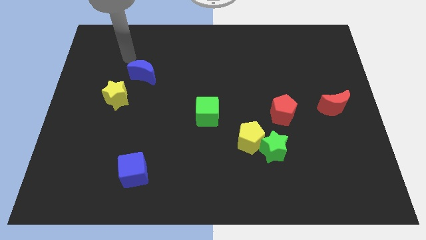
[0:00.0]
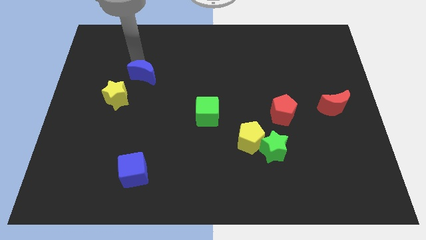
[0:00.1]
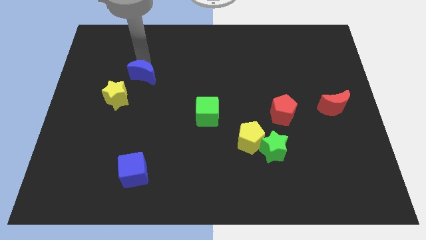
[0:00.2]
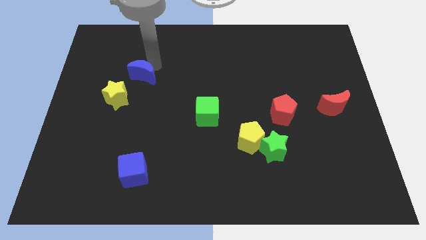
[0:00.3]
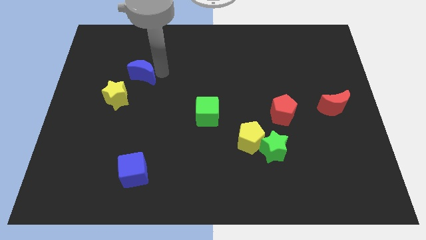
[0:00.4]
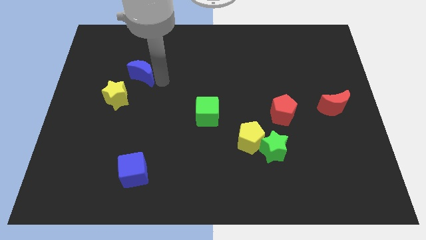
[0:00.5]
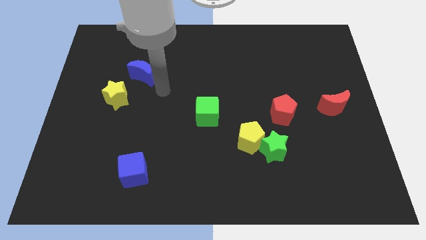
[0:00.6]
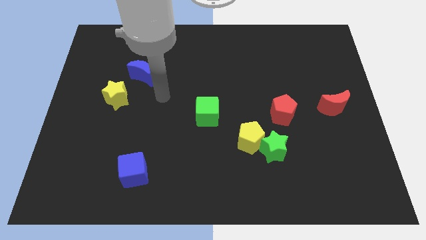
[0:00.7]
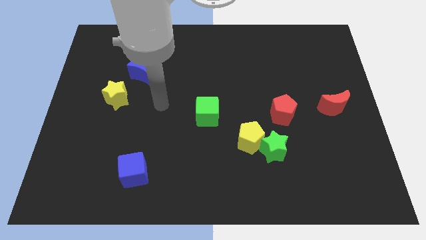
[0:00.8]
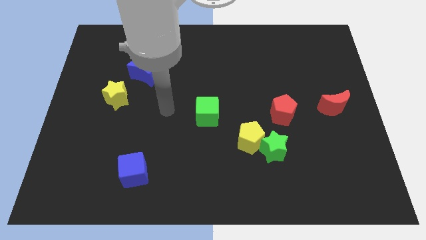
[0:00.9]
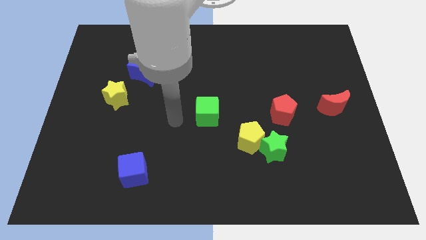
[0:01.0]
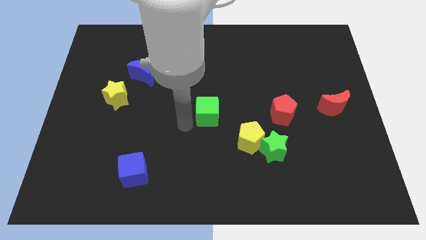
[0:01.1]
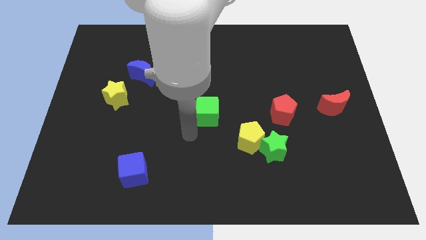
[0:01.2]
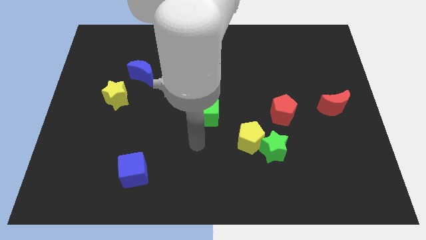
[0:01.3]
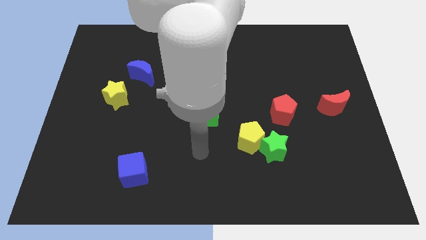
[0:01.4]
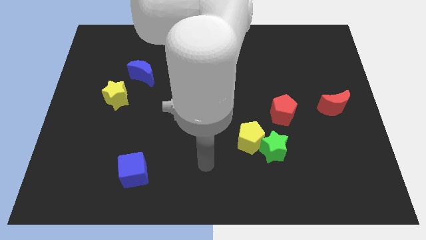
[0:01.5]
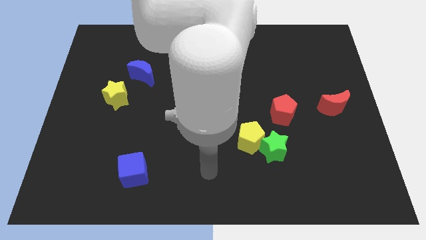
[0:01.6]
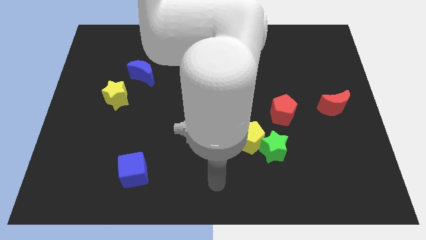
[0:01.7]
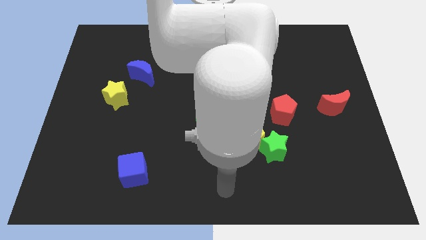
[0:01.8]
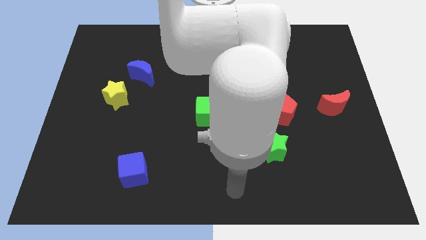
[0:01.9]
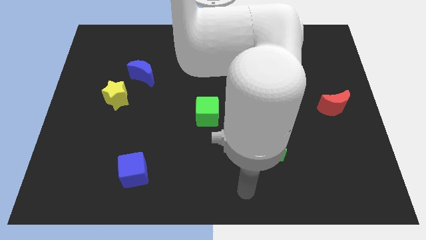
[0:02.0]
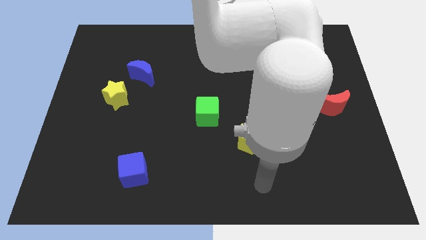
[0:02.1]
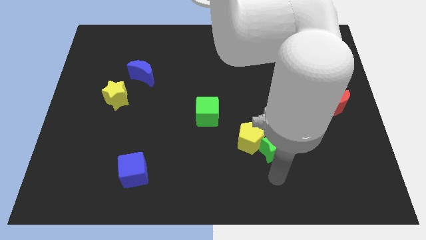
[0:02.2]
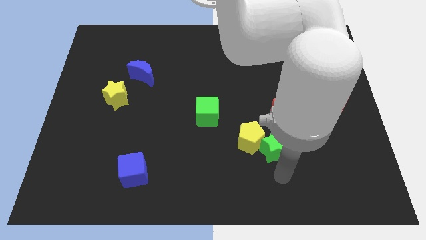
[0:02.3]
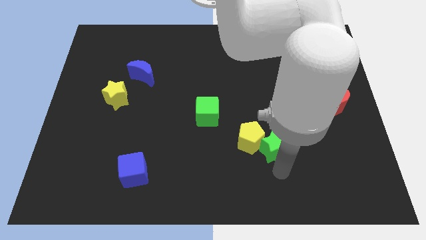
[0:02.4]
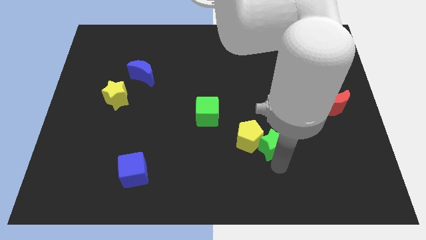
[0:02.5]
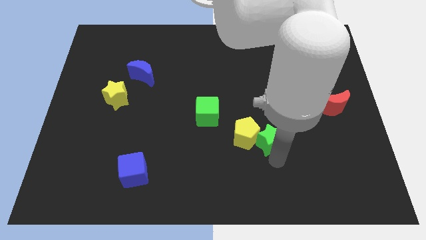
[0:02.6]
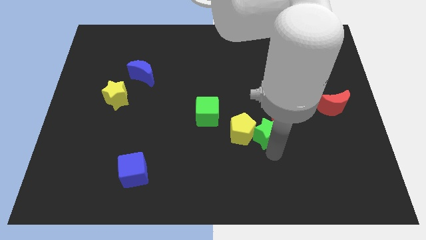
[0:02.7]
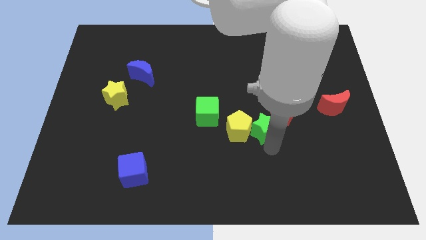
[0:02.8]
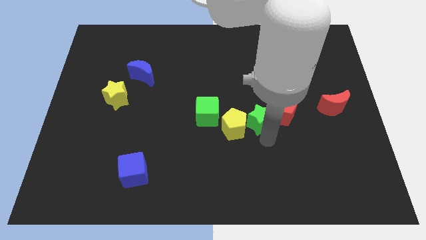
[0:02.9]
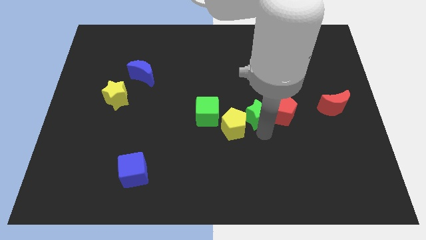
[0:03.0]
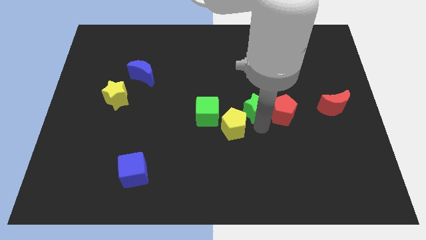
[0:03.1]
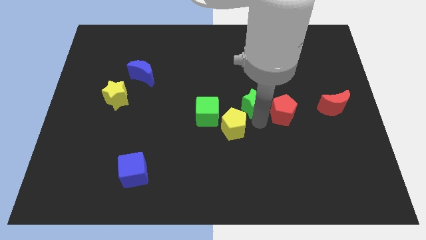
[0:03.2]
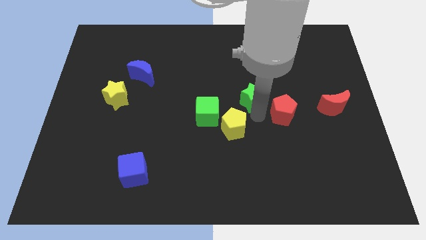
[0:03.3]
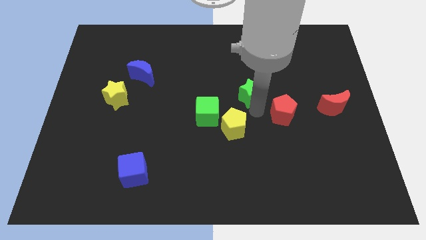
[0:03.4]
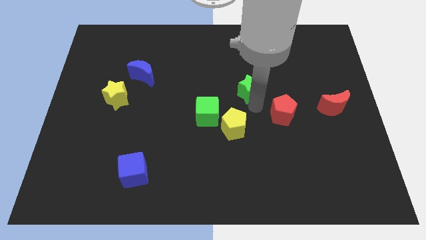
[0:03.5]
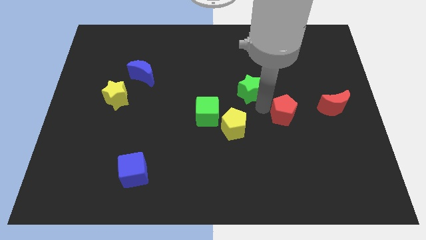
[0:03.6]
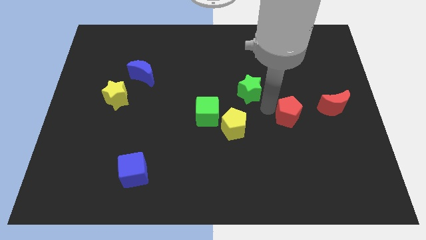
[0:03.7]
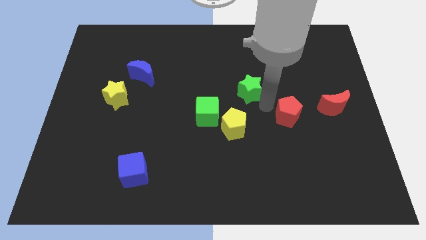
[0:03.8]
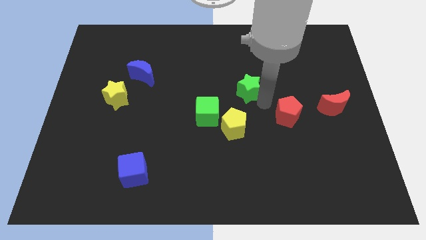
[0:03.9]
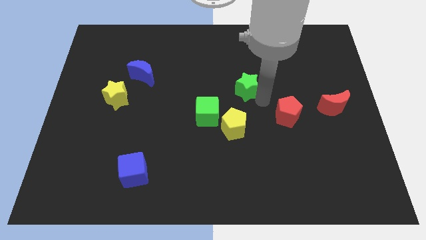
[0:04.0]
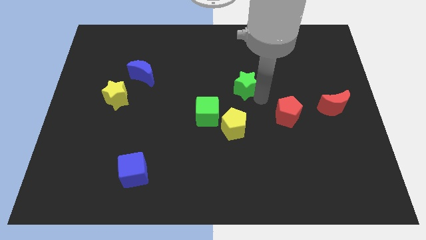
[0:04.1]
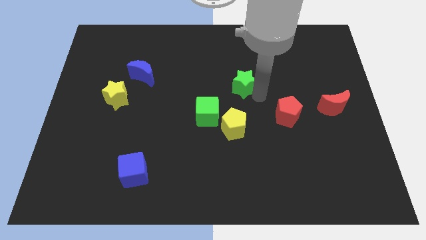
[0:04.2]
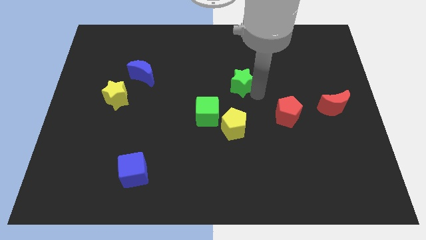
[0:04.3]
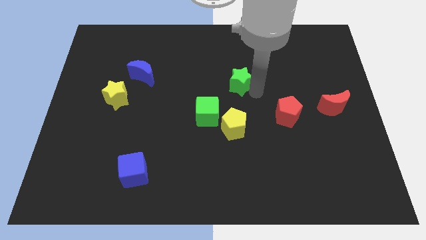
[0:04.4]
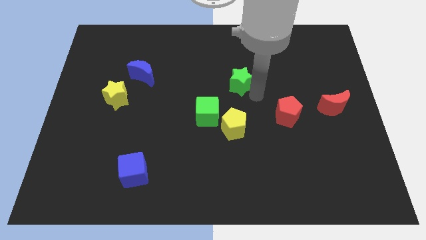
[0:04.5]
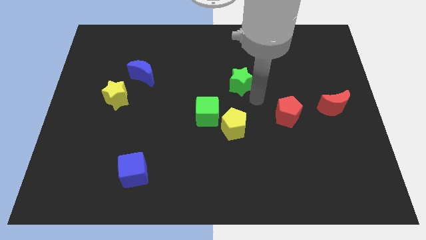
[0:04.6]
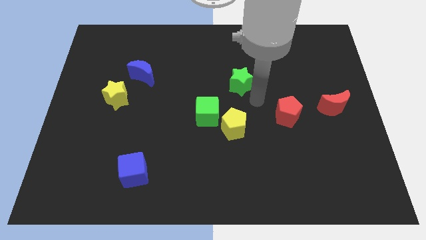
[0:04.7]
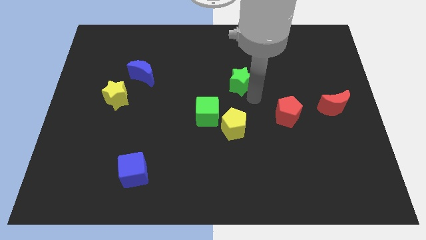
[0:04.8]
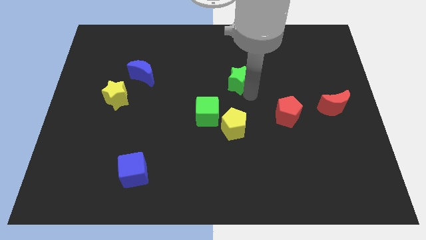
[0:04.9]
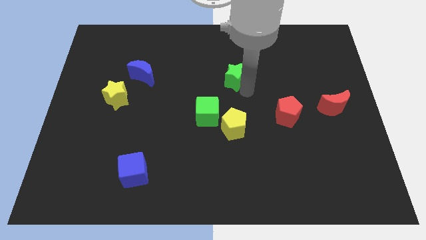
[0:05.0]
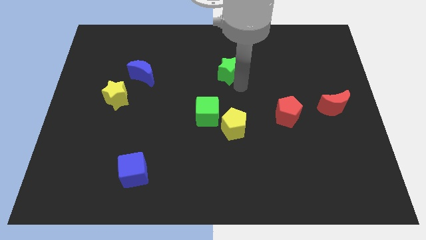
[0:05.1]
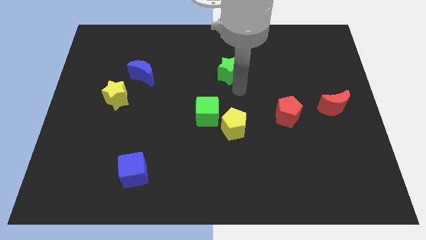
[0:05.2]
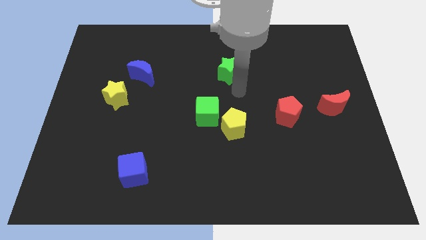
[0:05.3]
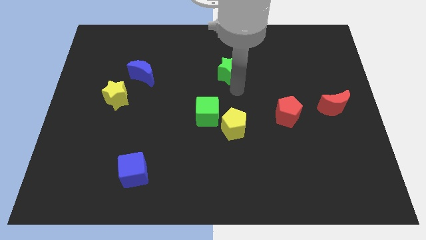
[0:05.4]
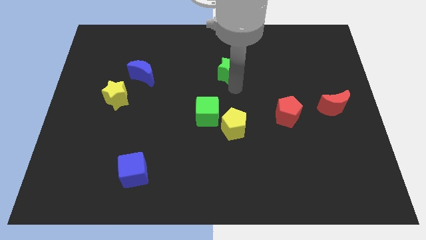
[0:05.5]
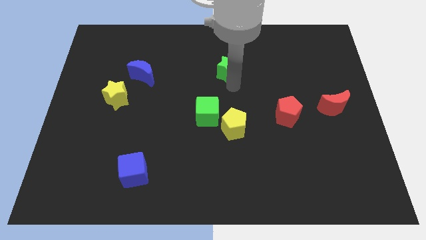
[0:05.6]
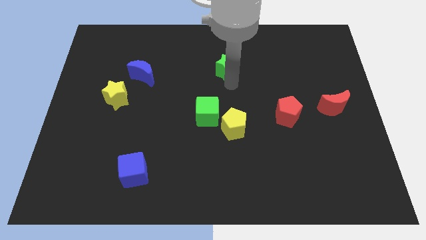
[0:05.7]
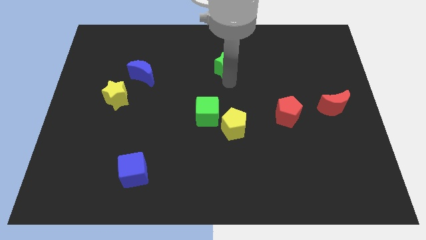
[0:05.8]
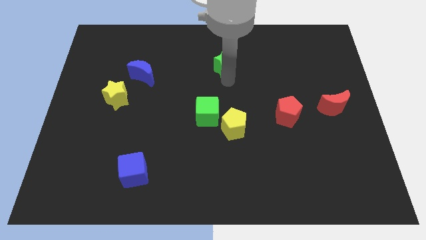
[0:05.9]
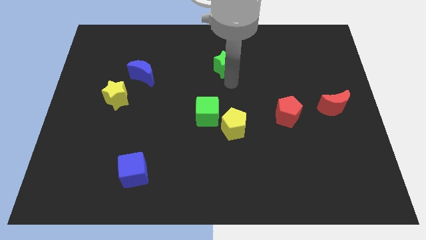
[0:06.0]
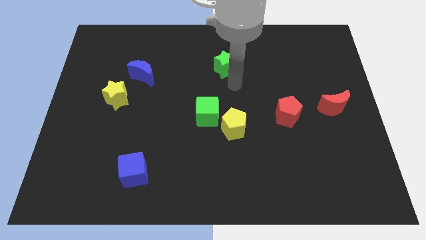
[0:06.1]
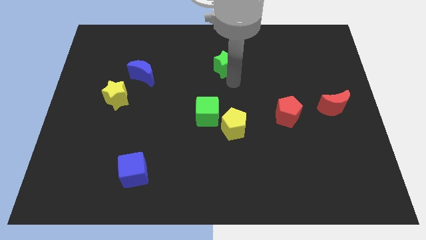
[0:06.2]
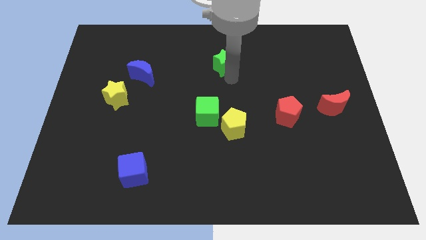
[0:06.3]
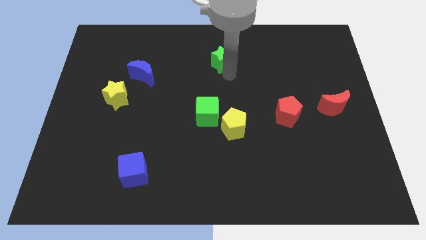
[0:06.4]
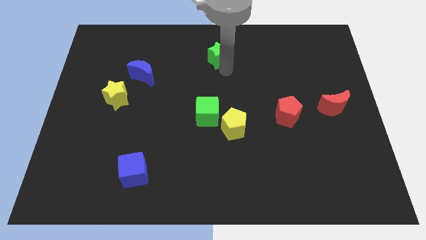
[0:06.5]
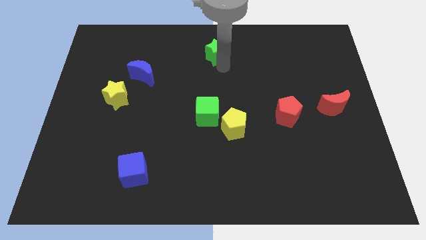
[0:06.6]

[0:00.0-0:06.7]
push the green star to the towards your base
